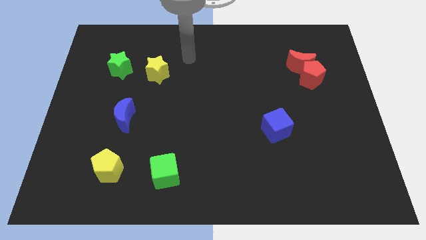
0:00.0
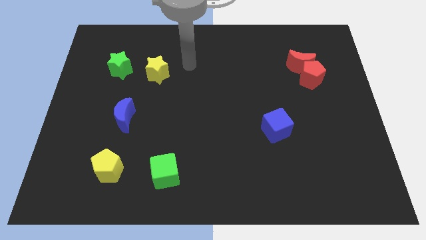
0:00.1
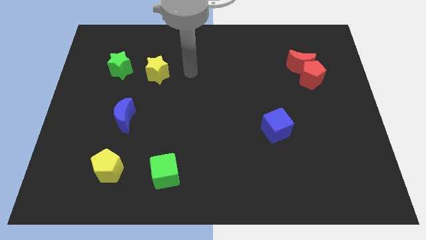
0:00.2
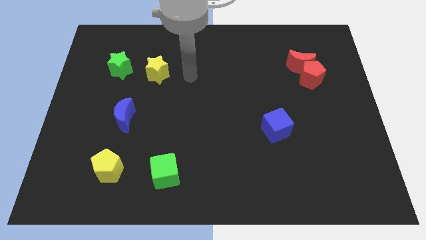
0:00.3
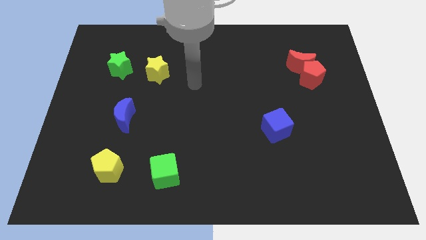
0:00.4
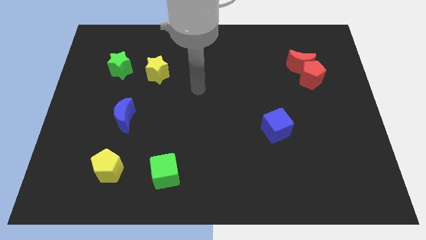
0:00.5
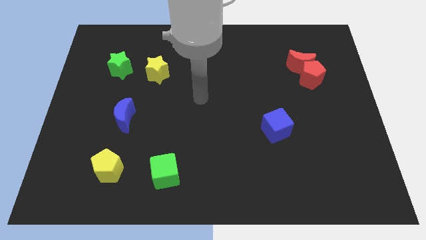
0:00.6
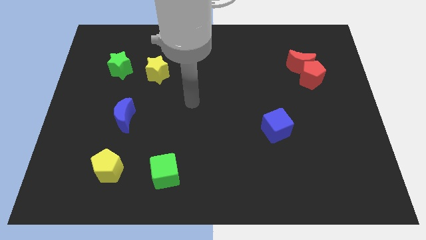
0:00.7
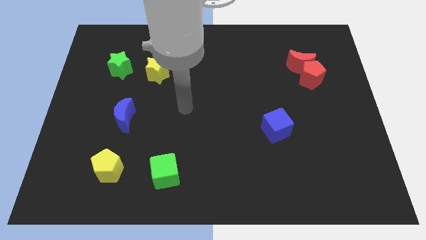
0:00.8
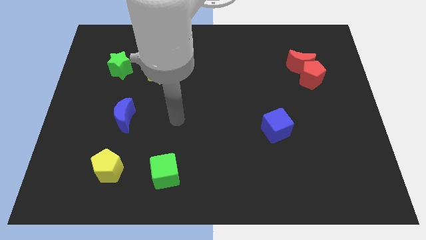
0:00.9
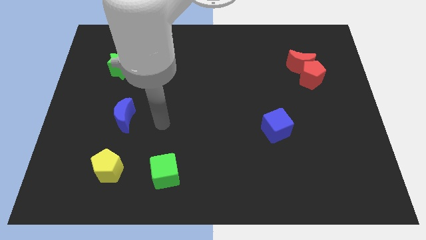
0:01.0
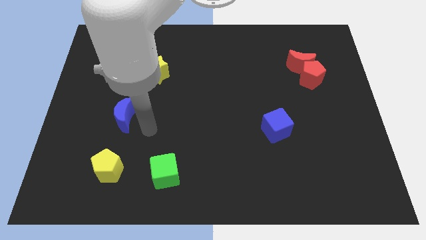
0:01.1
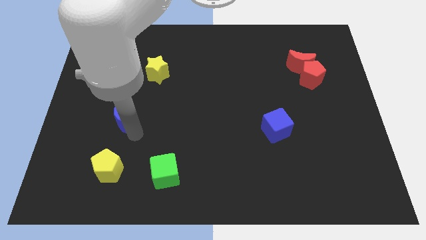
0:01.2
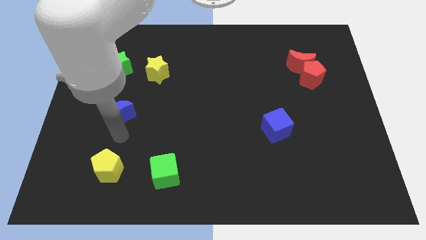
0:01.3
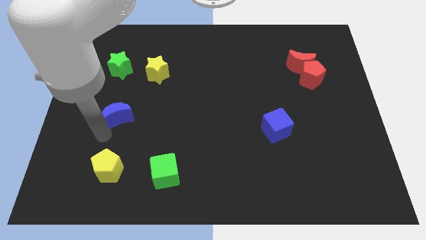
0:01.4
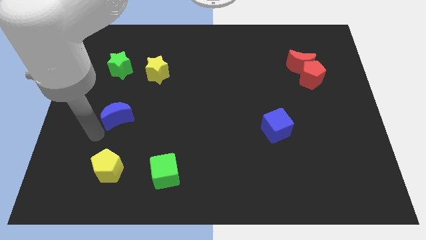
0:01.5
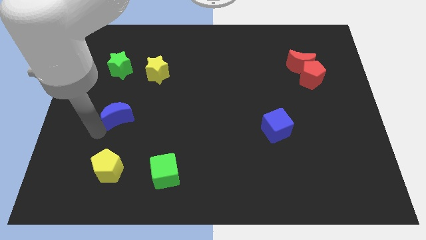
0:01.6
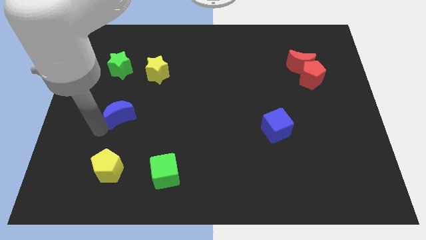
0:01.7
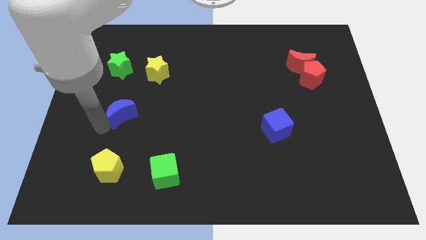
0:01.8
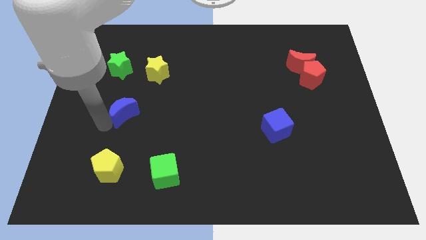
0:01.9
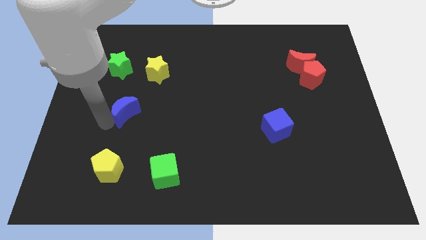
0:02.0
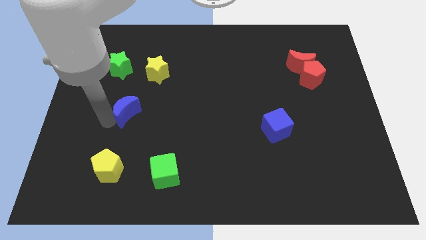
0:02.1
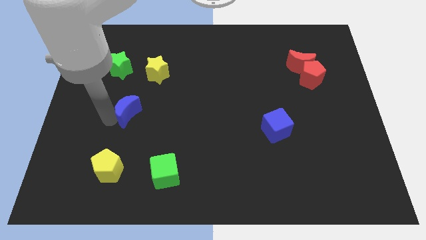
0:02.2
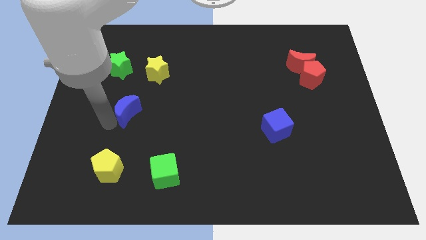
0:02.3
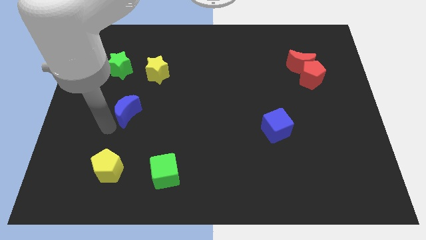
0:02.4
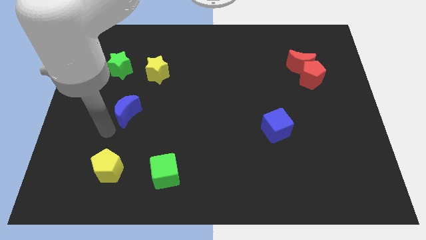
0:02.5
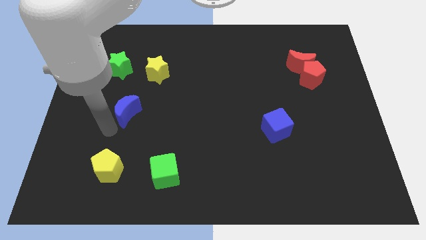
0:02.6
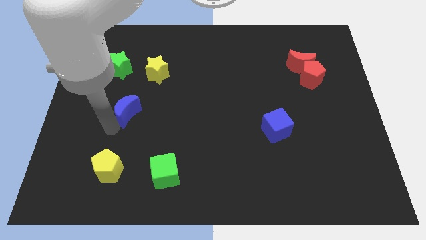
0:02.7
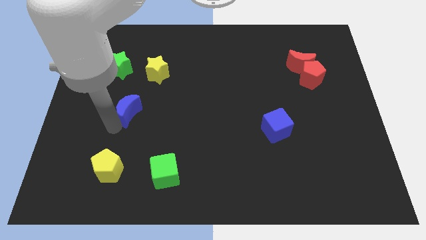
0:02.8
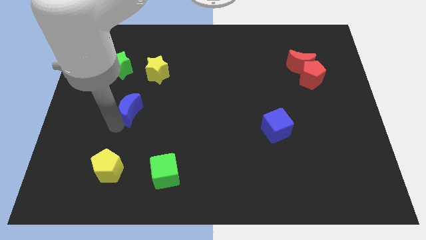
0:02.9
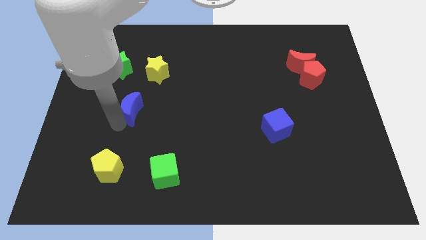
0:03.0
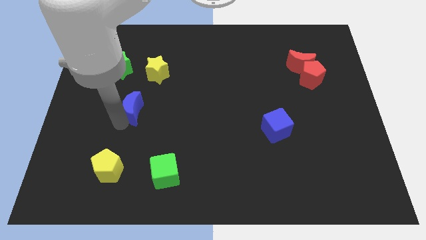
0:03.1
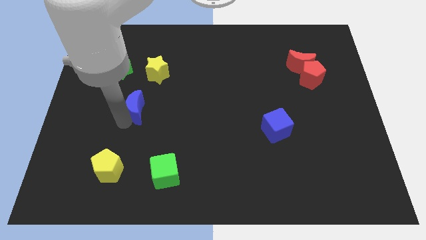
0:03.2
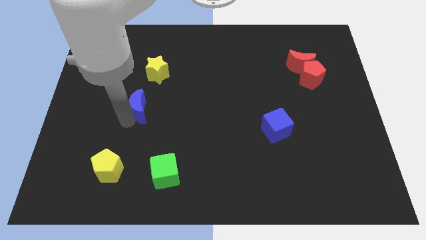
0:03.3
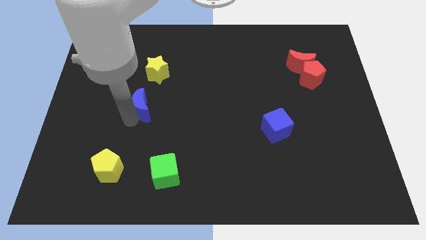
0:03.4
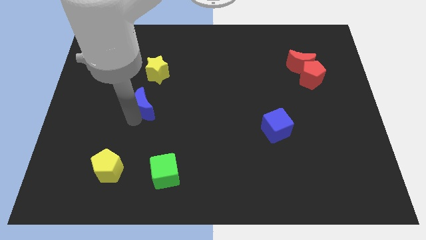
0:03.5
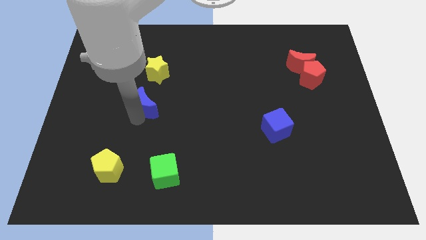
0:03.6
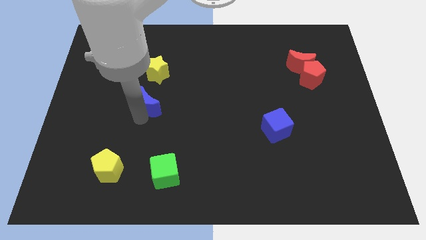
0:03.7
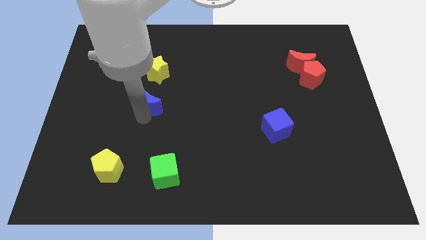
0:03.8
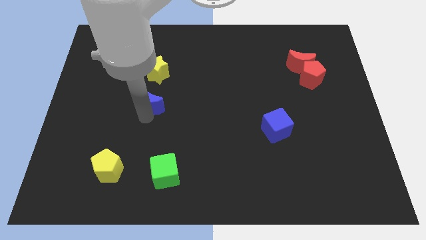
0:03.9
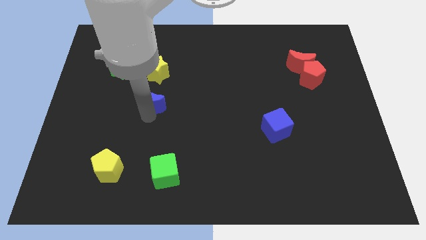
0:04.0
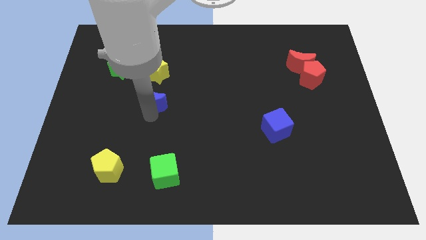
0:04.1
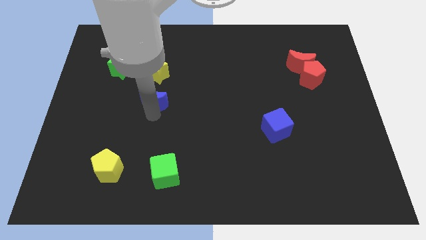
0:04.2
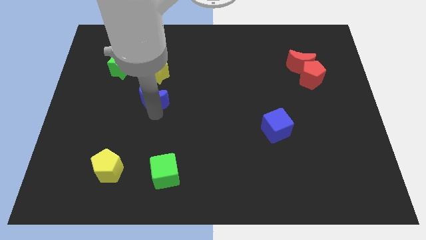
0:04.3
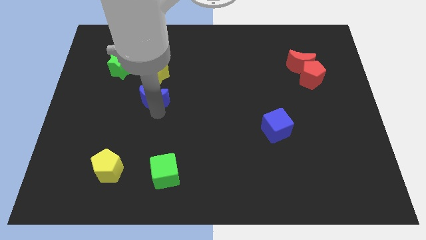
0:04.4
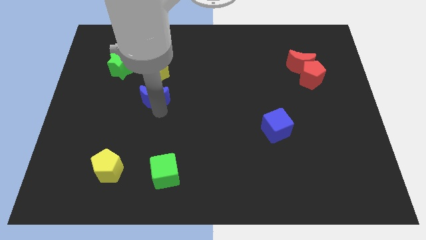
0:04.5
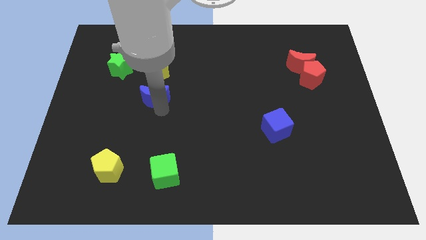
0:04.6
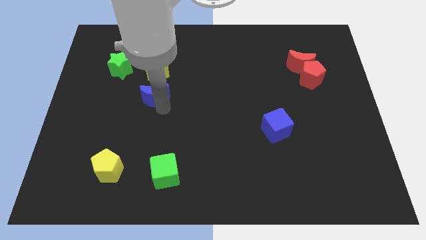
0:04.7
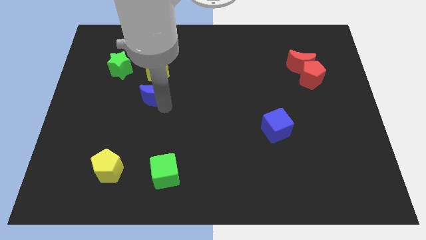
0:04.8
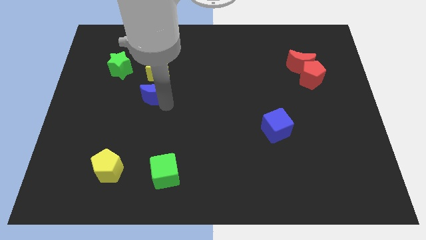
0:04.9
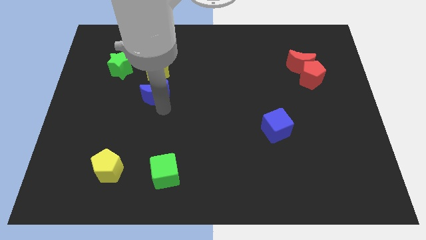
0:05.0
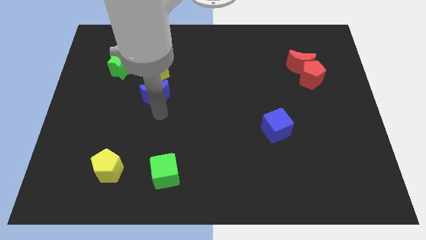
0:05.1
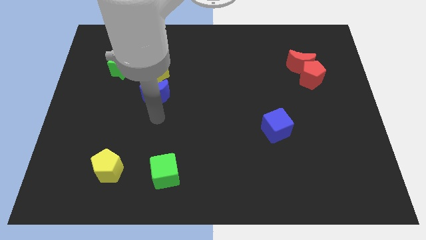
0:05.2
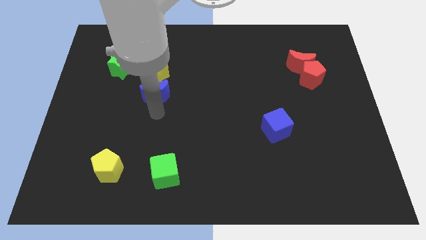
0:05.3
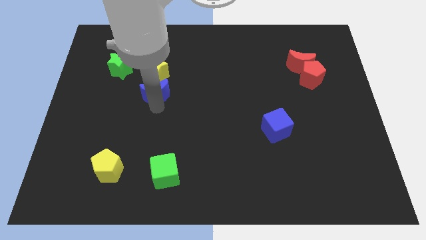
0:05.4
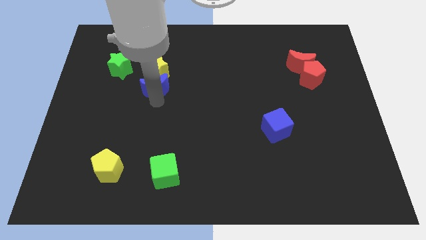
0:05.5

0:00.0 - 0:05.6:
slide the blue moon towards the yellow star

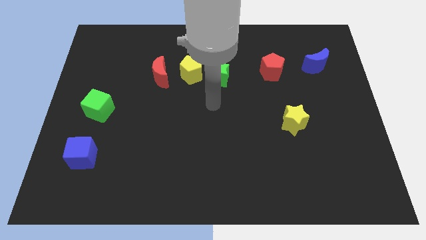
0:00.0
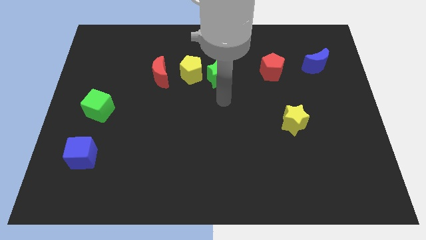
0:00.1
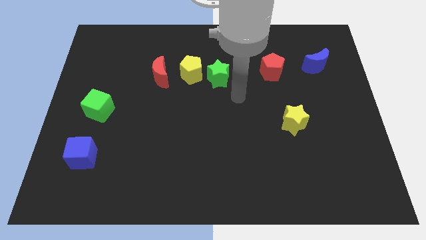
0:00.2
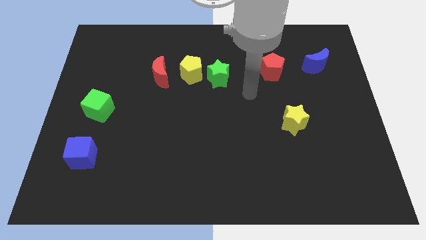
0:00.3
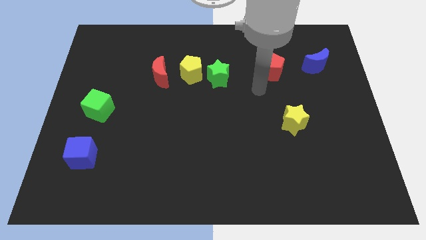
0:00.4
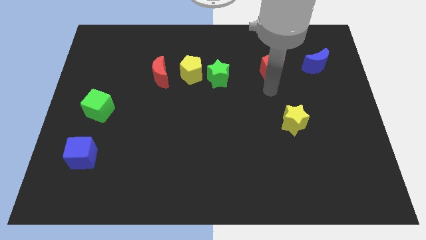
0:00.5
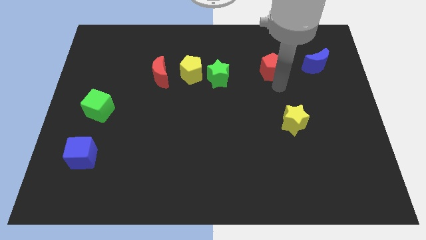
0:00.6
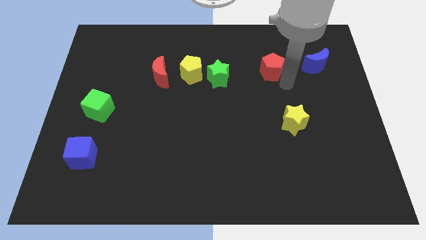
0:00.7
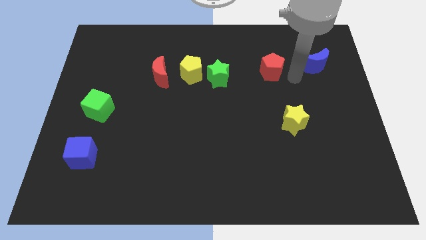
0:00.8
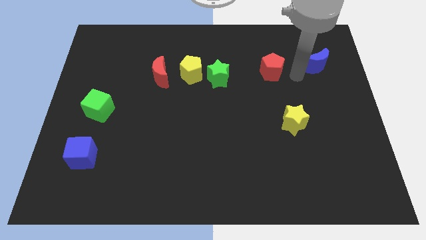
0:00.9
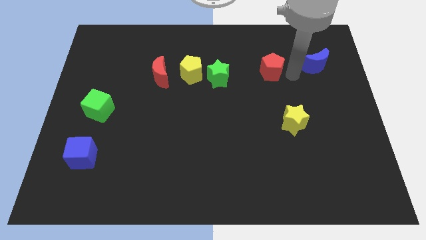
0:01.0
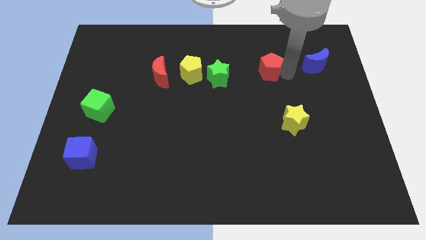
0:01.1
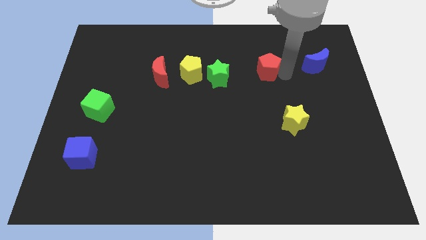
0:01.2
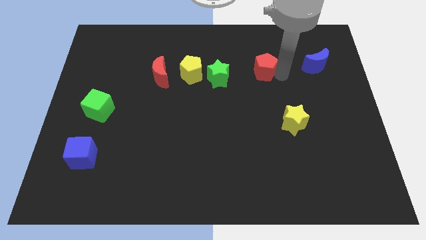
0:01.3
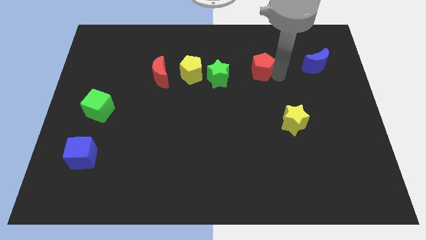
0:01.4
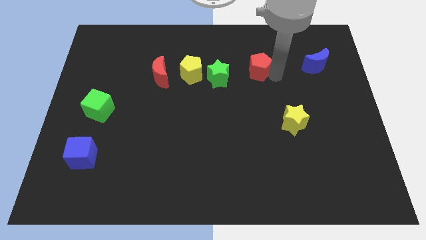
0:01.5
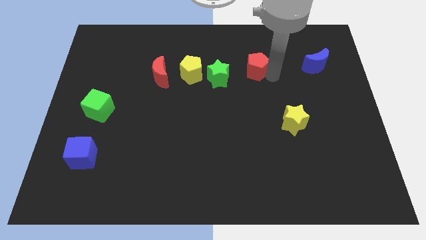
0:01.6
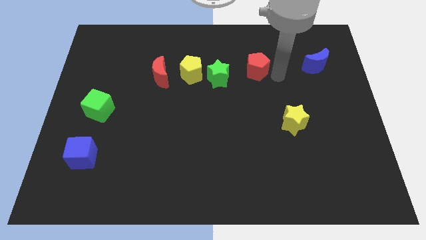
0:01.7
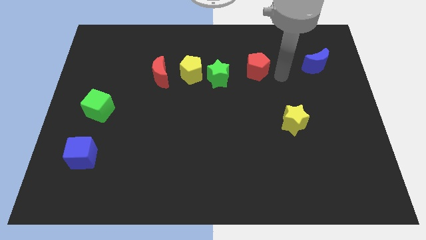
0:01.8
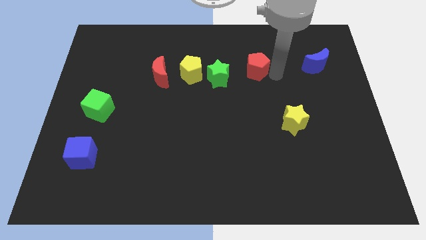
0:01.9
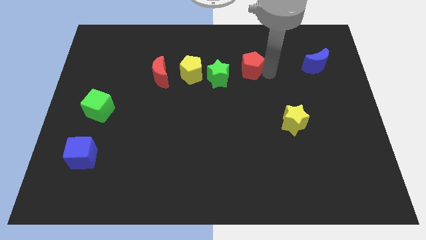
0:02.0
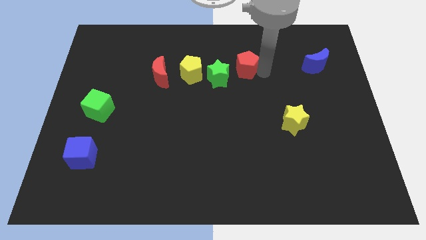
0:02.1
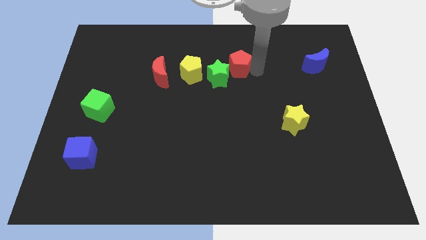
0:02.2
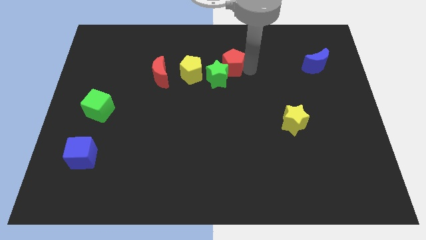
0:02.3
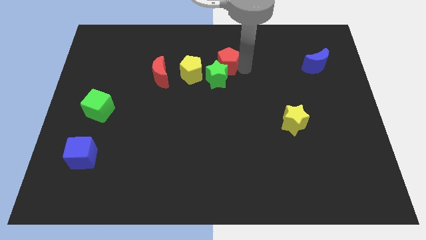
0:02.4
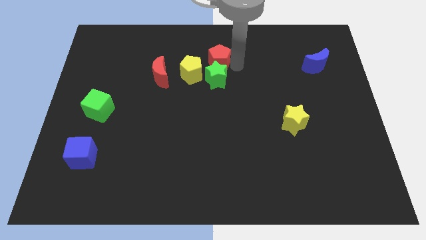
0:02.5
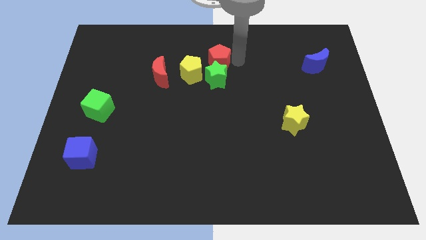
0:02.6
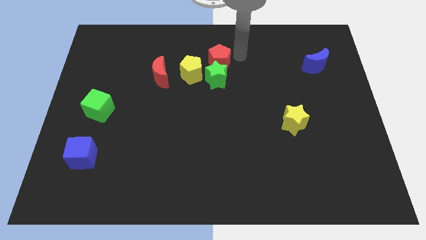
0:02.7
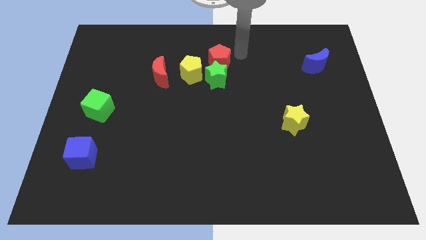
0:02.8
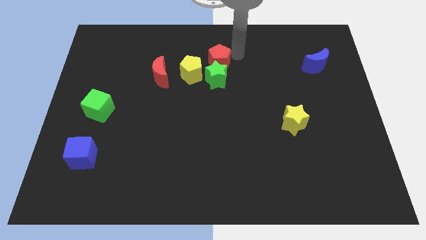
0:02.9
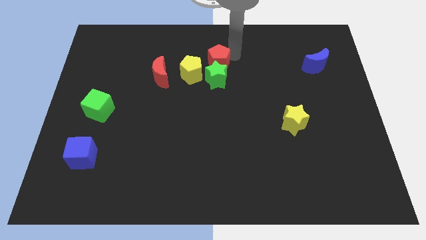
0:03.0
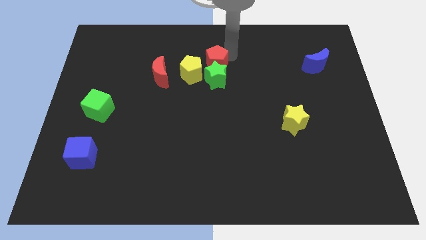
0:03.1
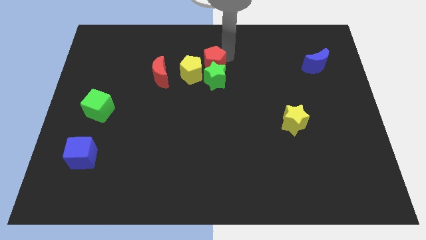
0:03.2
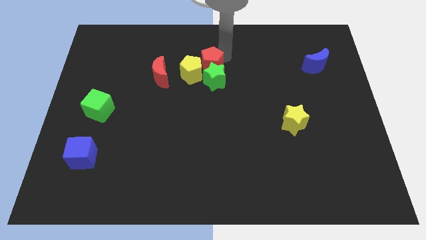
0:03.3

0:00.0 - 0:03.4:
move the red pentagon close to the yellow pentagon
